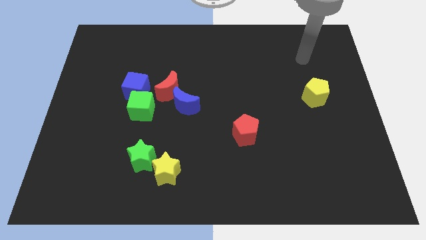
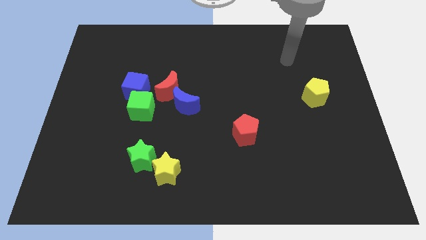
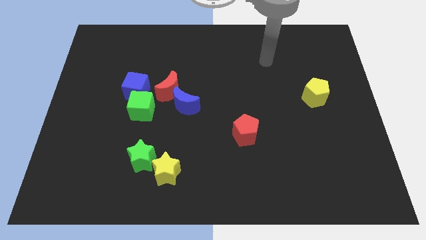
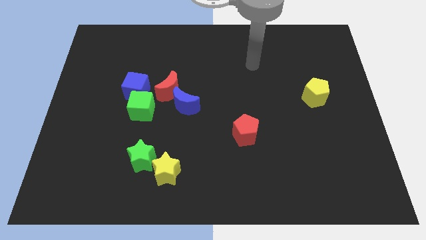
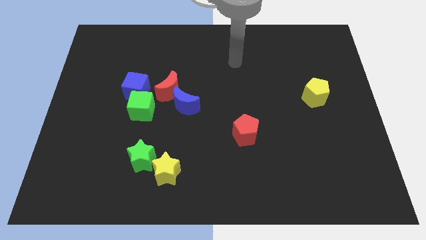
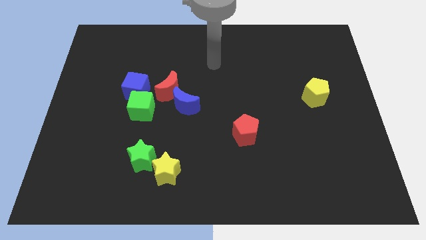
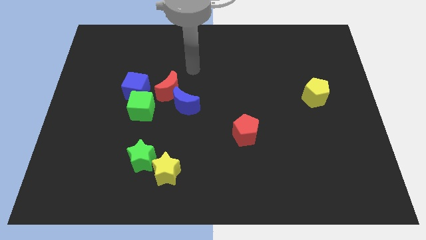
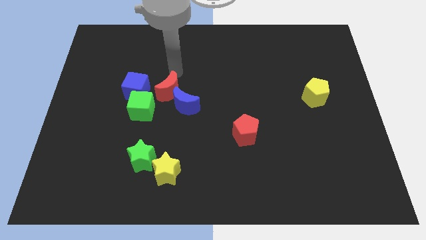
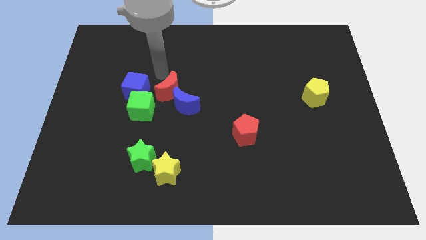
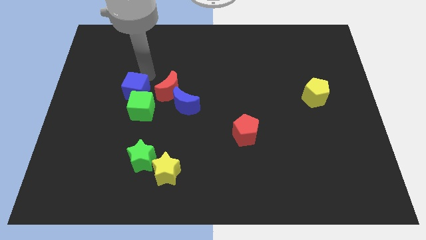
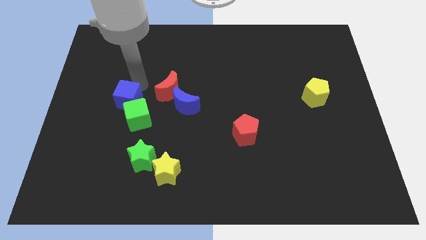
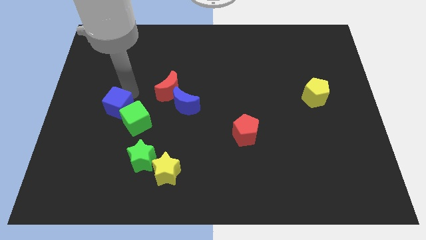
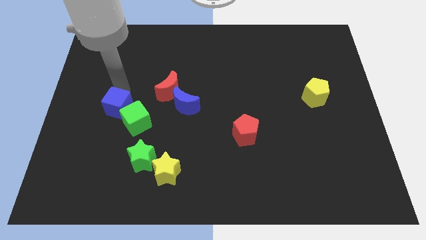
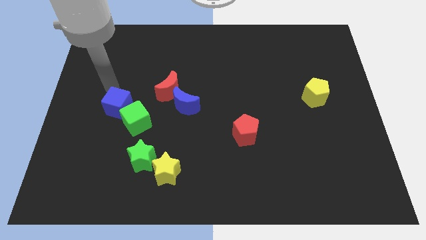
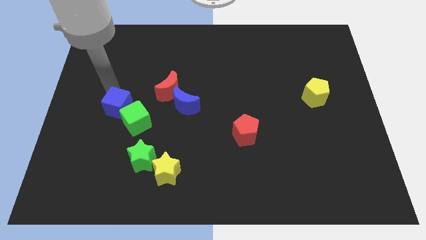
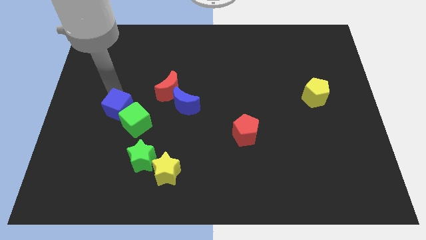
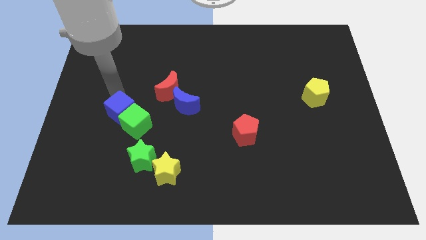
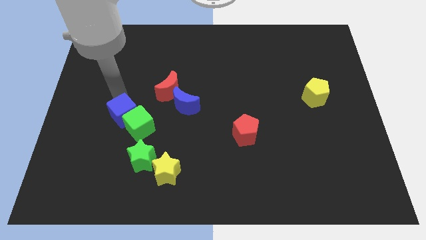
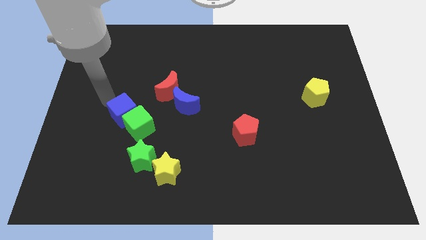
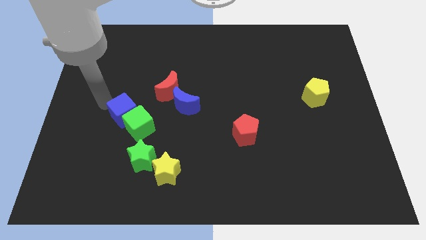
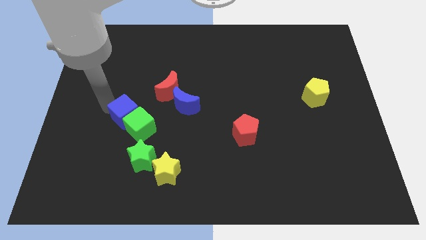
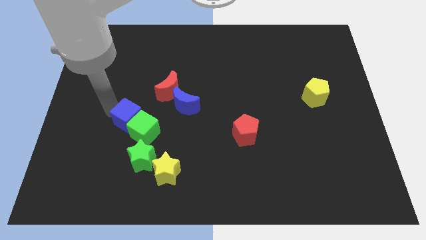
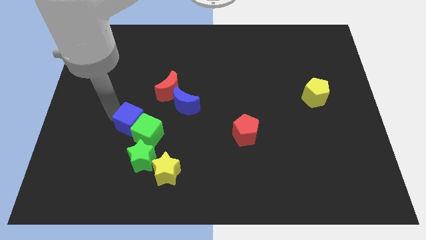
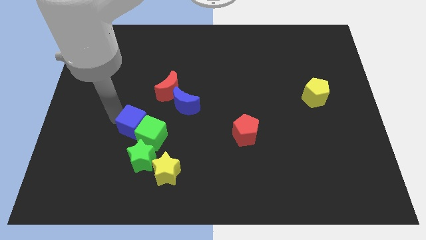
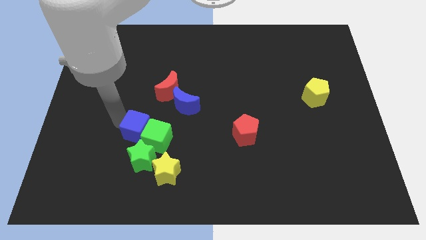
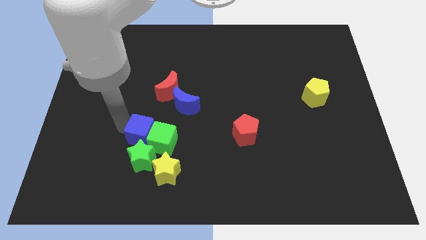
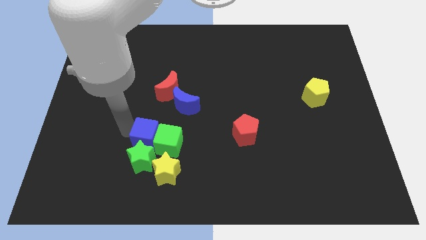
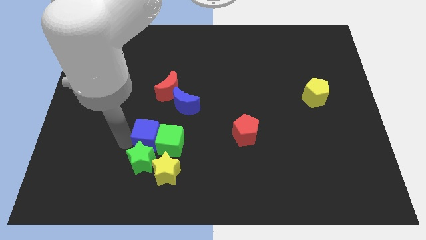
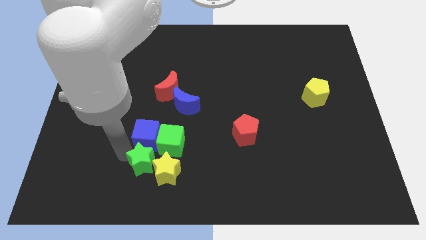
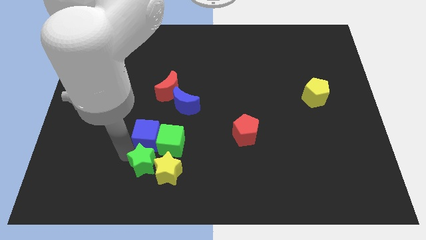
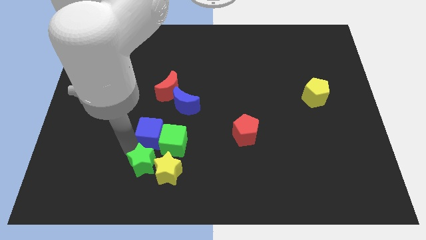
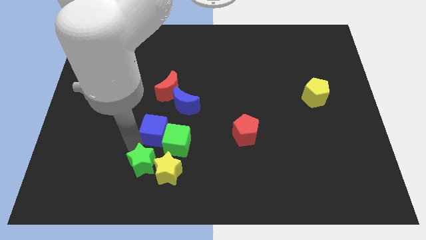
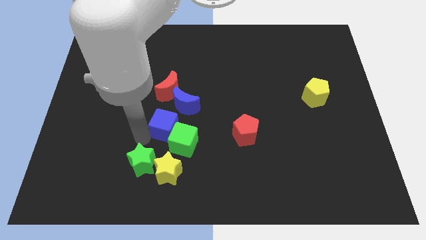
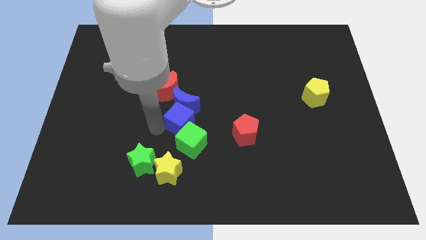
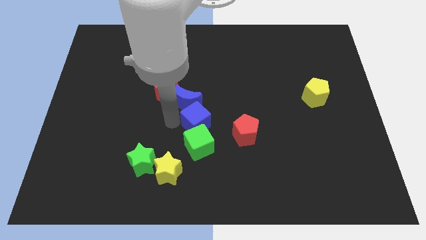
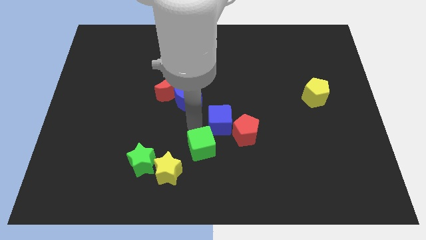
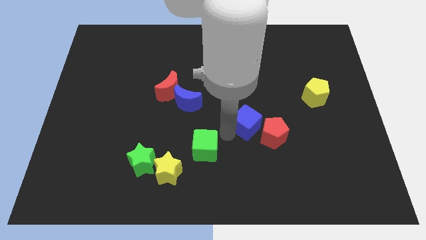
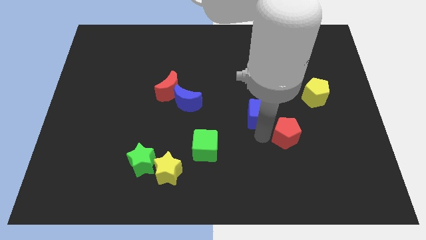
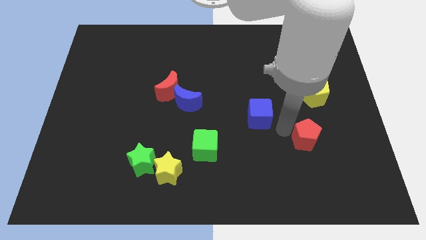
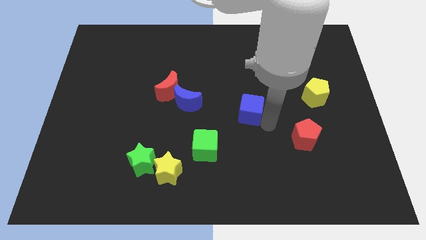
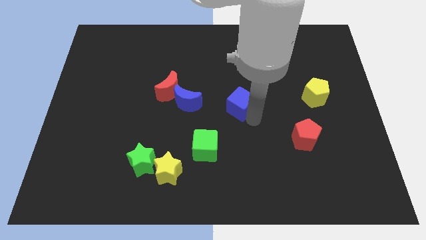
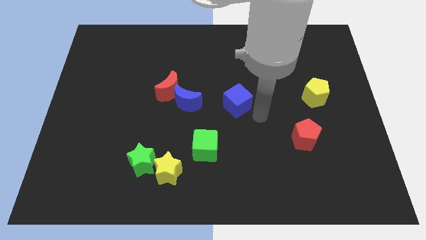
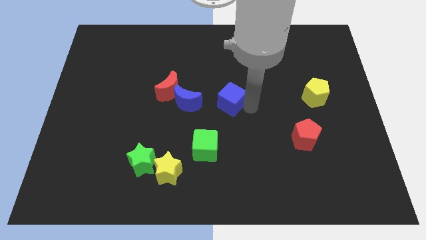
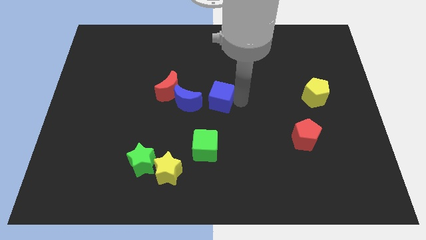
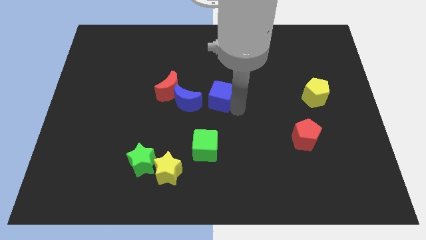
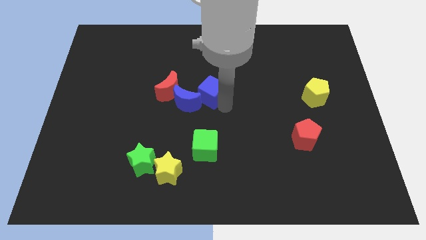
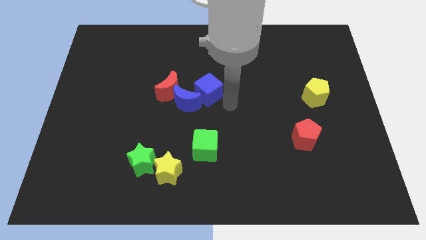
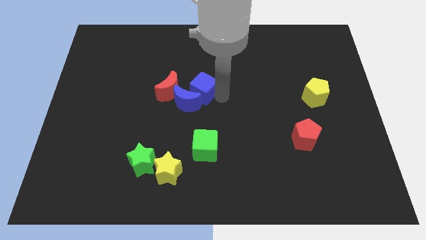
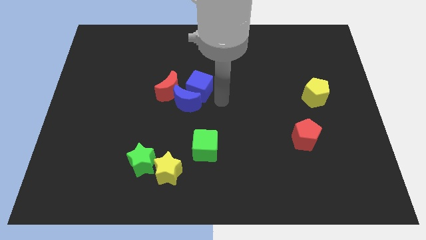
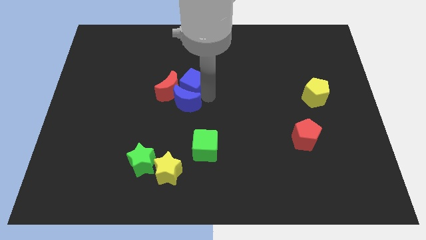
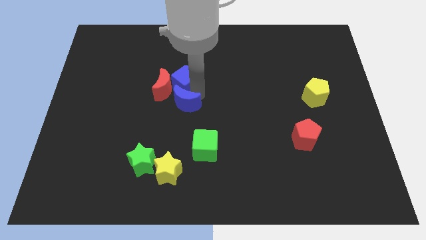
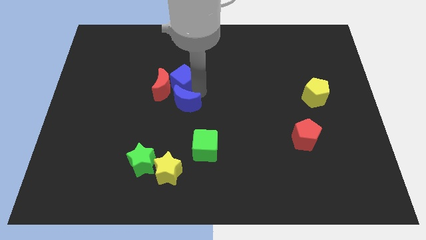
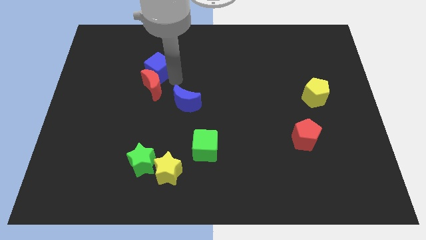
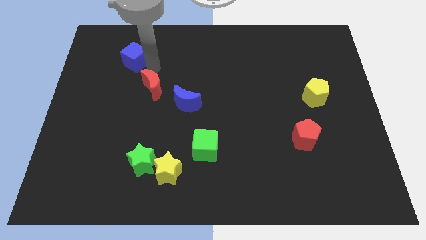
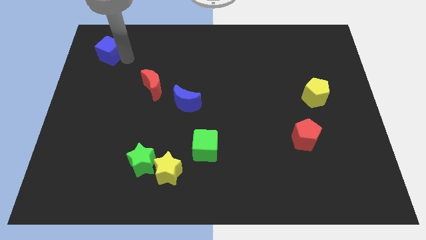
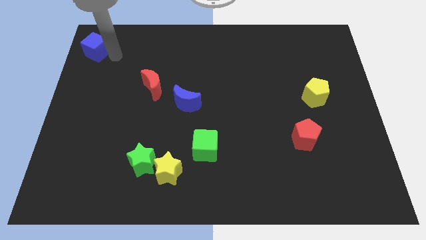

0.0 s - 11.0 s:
slide the blue cube to the top left

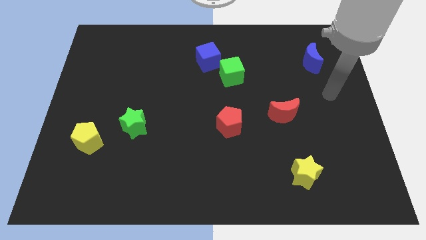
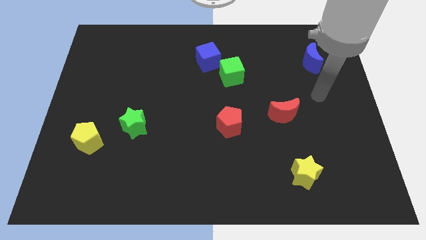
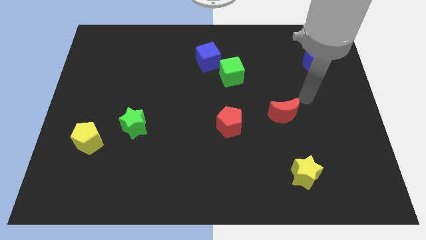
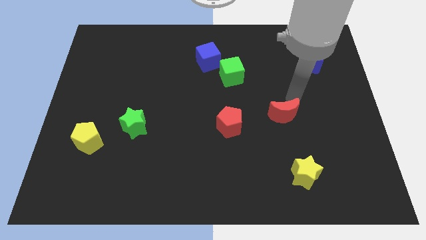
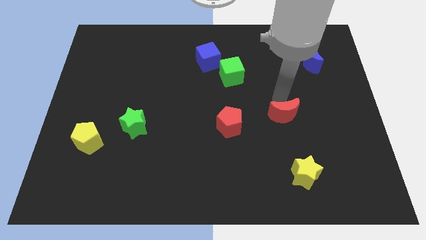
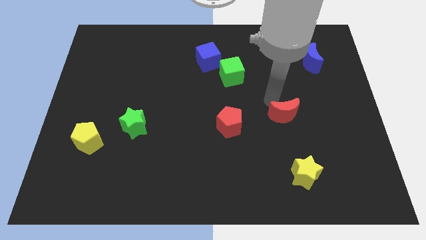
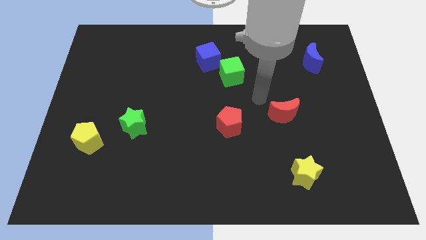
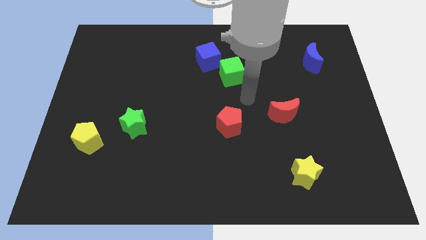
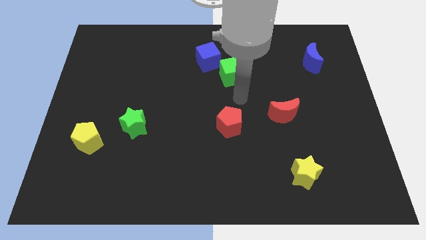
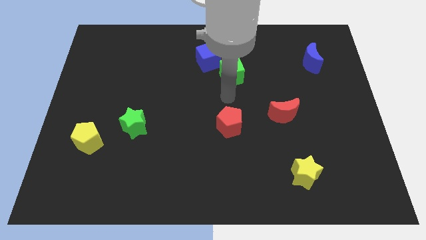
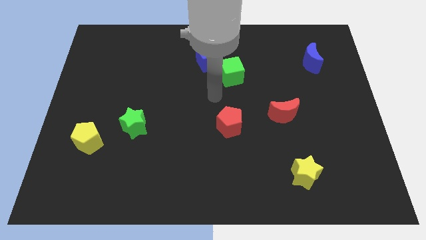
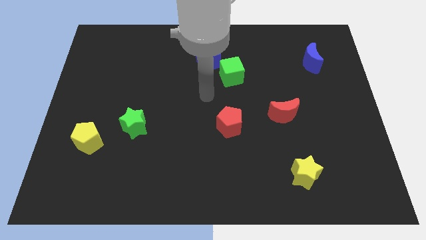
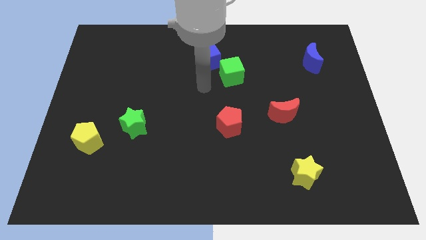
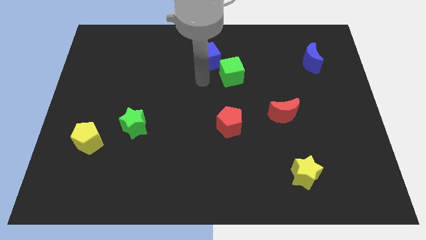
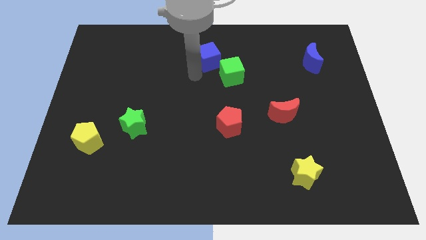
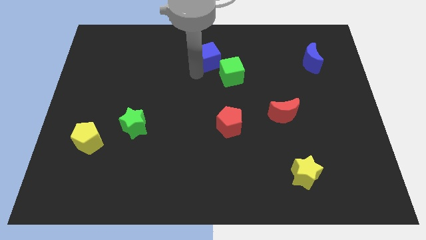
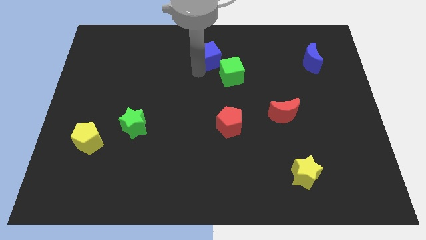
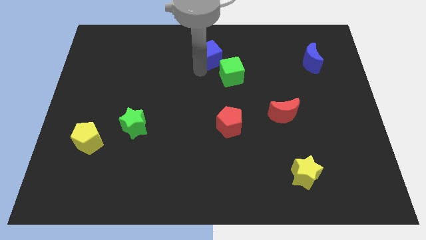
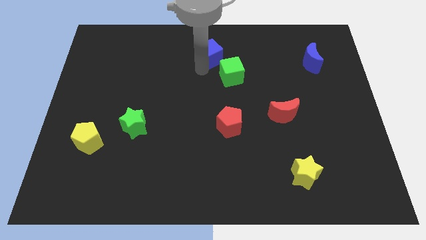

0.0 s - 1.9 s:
put the blue cube to the top side
